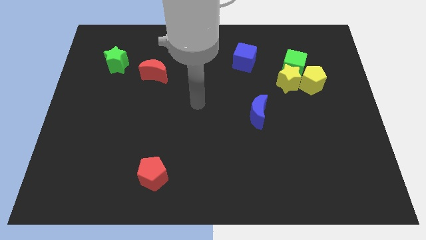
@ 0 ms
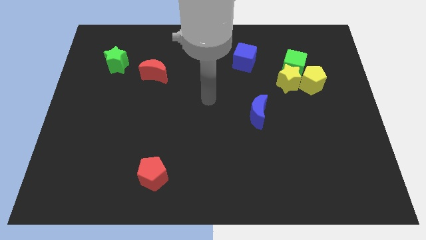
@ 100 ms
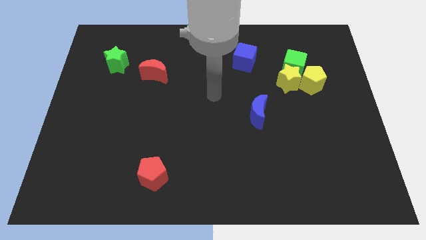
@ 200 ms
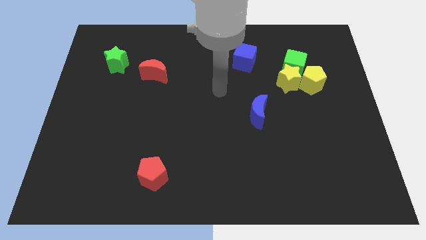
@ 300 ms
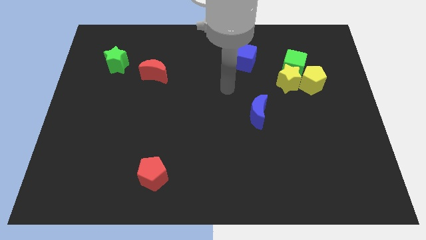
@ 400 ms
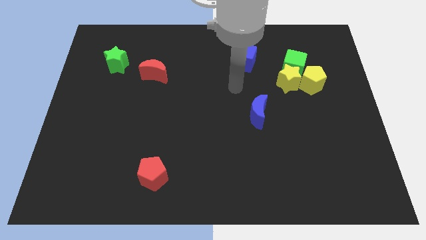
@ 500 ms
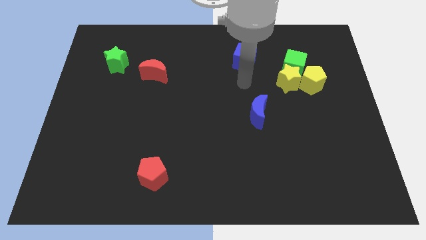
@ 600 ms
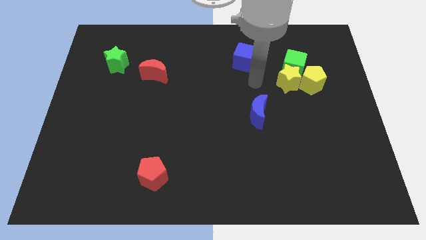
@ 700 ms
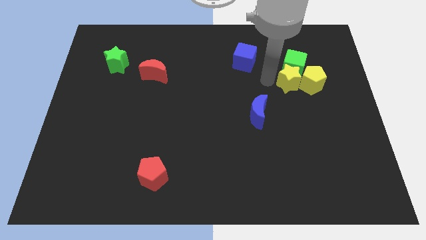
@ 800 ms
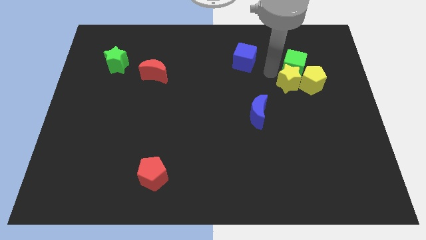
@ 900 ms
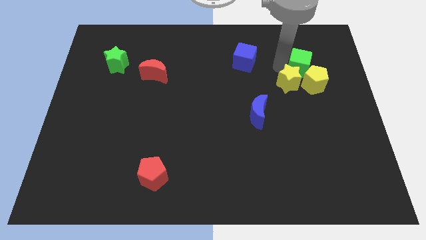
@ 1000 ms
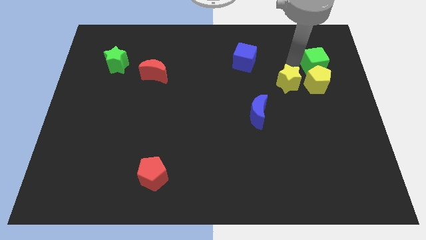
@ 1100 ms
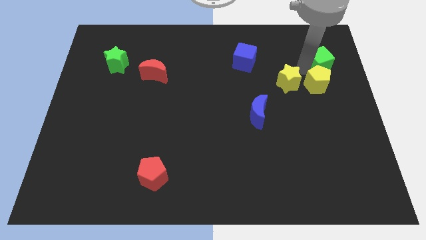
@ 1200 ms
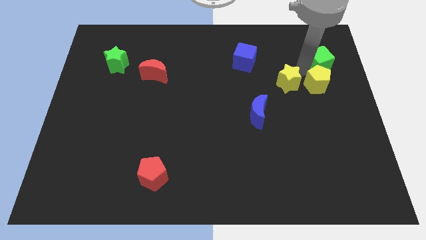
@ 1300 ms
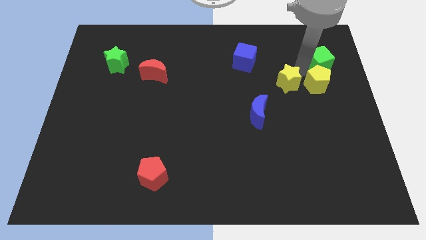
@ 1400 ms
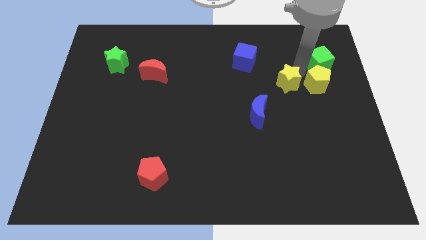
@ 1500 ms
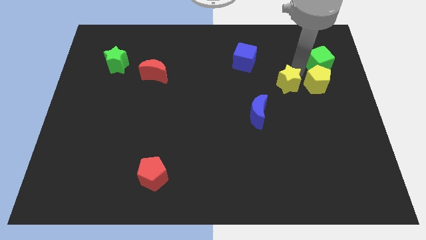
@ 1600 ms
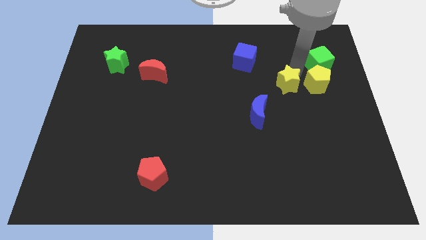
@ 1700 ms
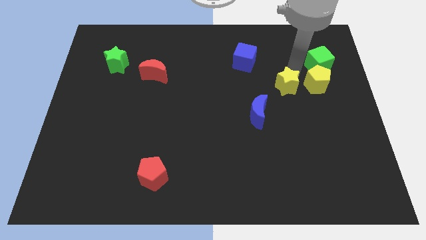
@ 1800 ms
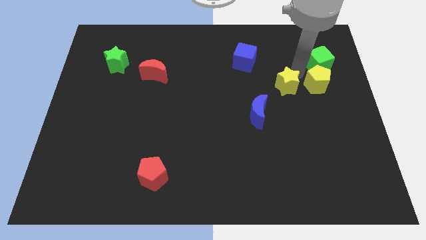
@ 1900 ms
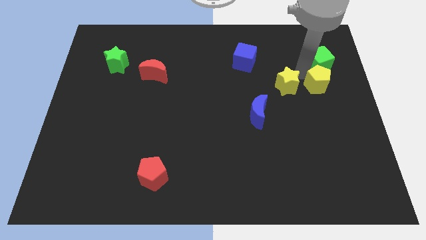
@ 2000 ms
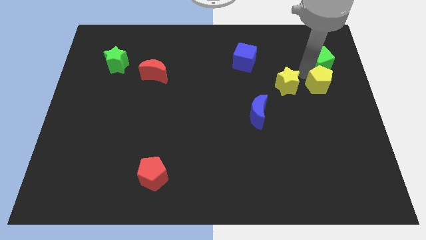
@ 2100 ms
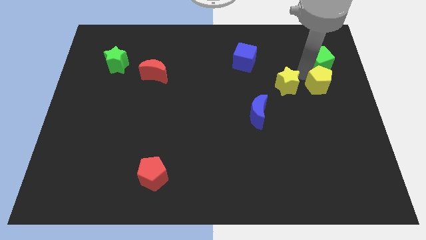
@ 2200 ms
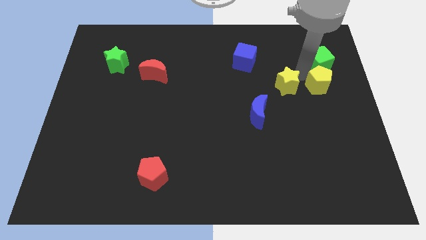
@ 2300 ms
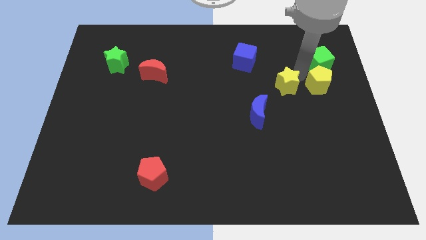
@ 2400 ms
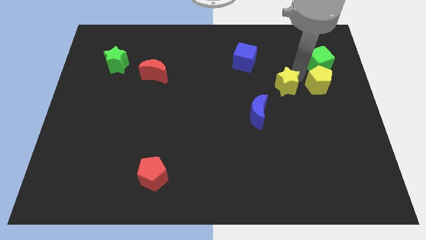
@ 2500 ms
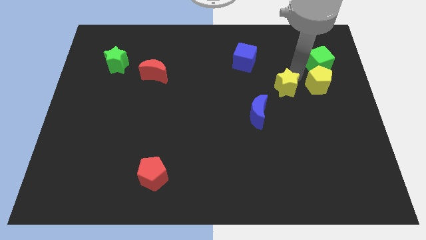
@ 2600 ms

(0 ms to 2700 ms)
pull the yellow star apart from the green cube and yellow pentagon

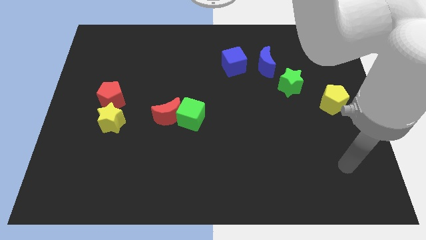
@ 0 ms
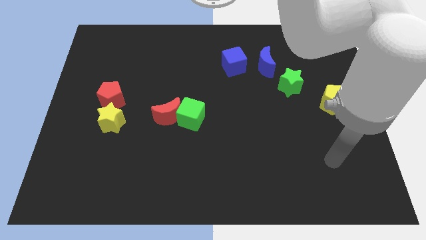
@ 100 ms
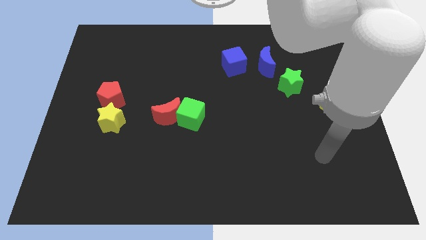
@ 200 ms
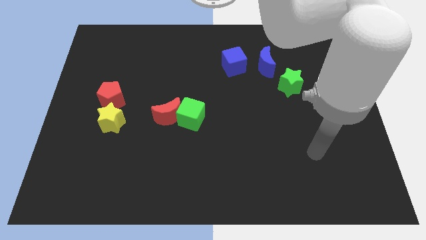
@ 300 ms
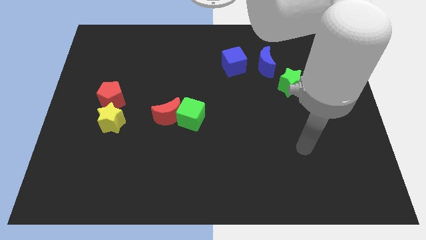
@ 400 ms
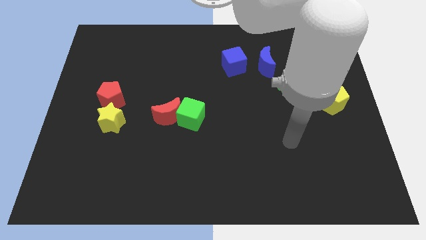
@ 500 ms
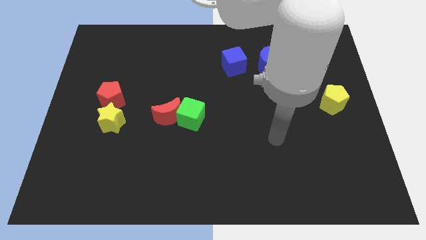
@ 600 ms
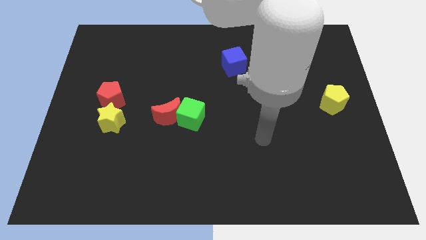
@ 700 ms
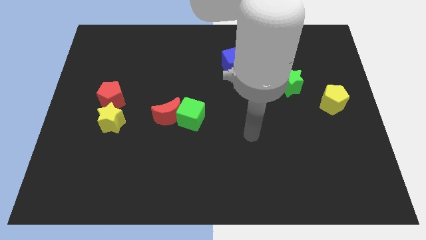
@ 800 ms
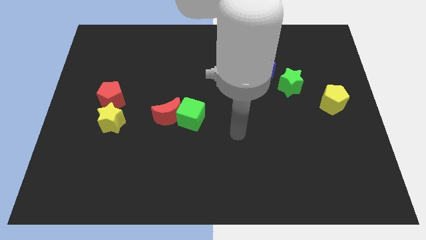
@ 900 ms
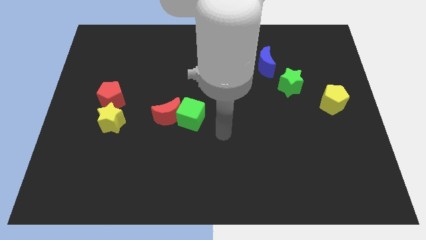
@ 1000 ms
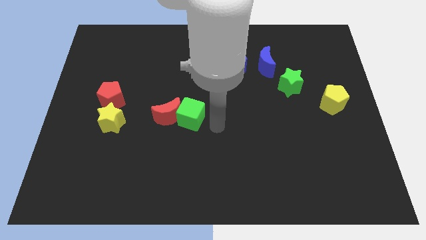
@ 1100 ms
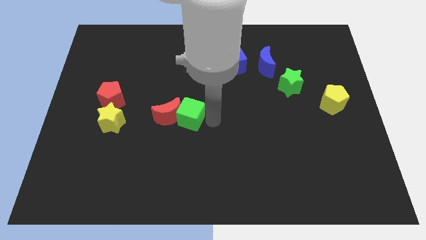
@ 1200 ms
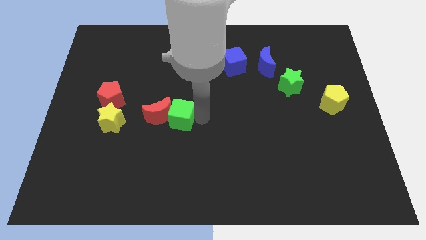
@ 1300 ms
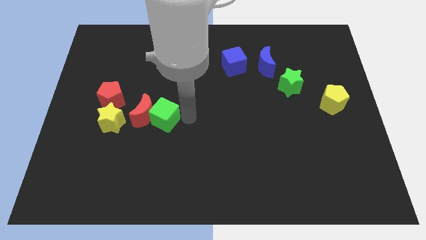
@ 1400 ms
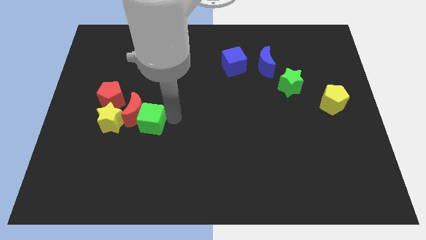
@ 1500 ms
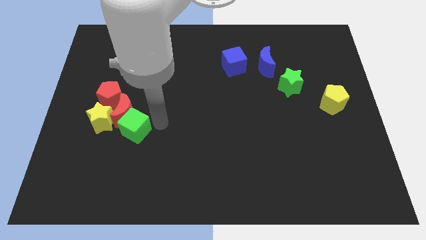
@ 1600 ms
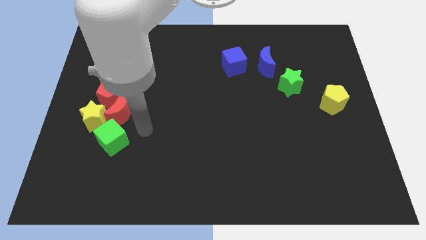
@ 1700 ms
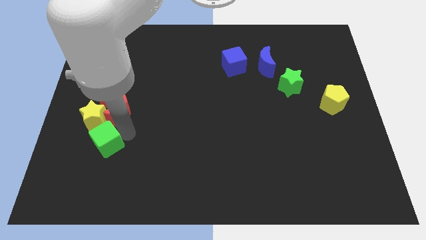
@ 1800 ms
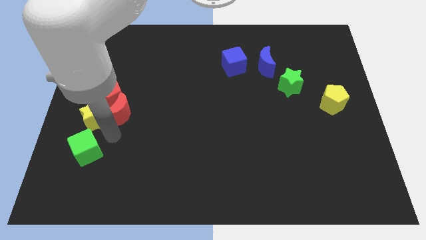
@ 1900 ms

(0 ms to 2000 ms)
pull the red moon apart from the green cube

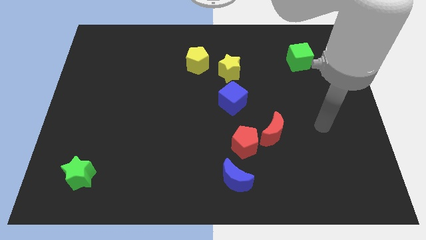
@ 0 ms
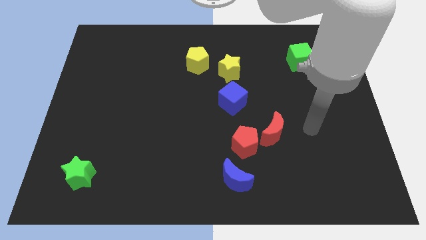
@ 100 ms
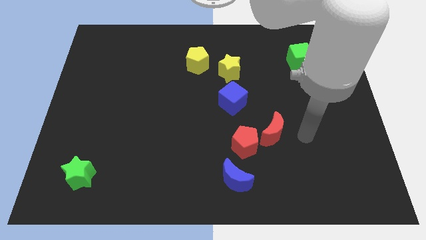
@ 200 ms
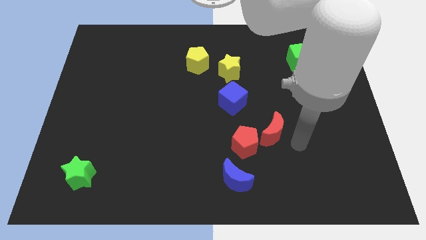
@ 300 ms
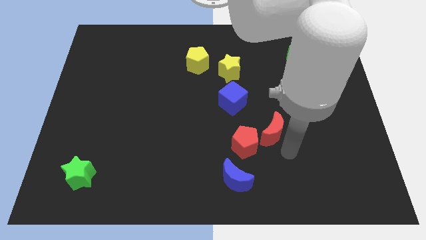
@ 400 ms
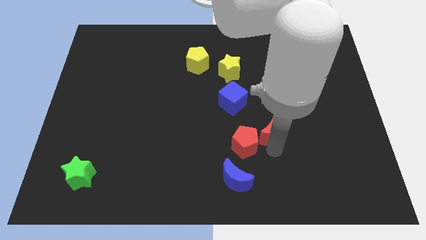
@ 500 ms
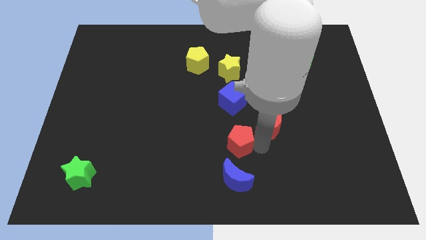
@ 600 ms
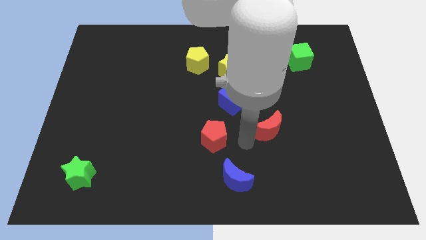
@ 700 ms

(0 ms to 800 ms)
move the red moon away from the red pentagon

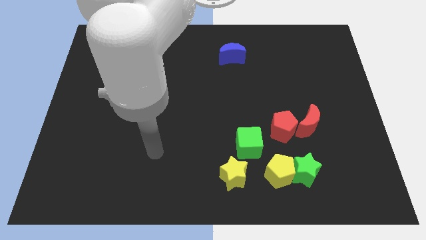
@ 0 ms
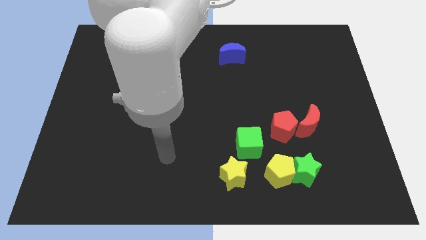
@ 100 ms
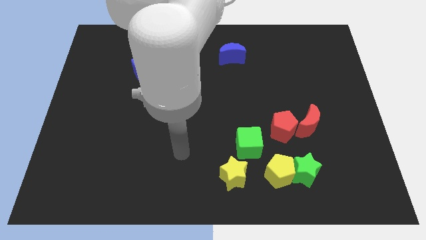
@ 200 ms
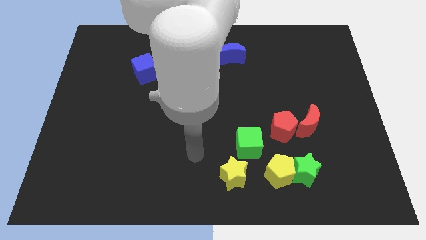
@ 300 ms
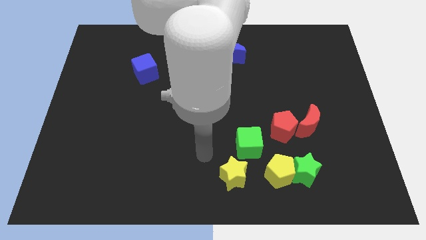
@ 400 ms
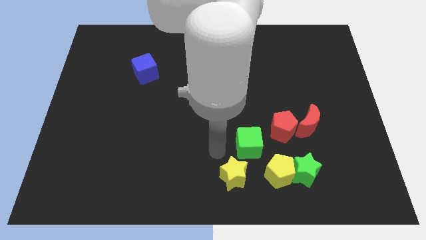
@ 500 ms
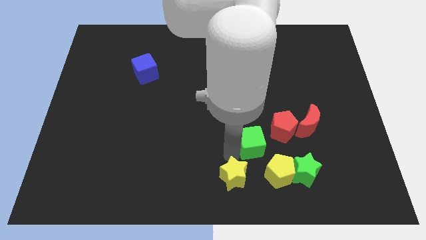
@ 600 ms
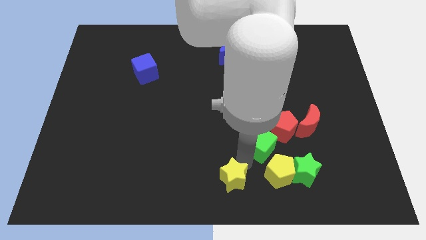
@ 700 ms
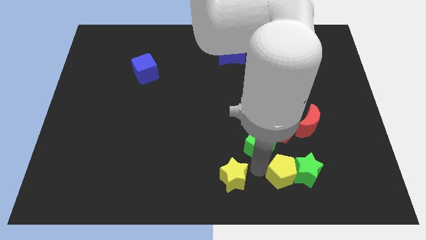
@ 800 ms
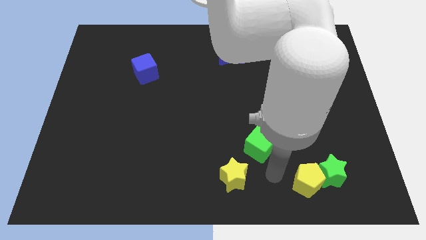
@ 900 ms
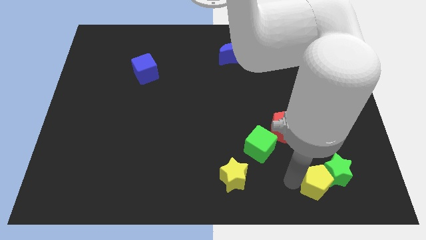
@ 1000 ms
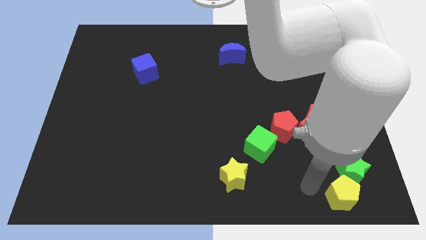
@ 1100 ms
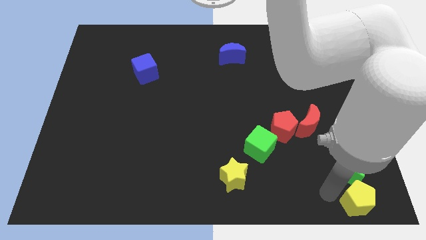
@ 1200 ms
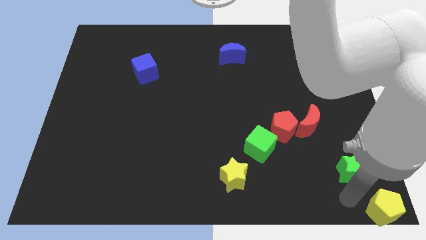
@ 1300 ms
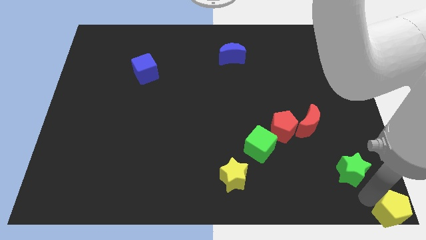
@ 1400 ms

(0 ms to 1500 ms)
separate the green star from the yellow pentagon

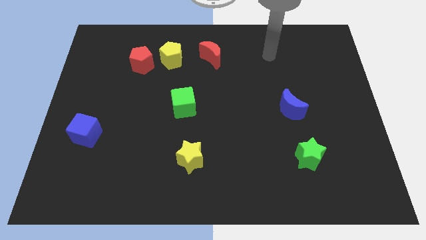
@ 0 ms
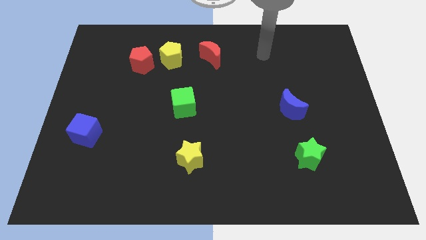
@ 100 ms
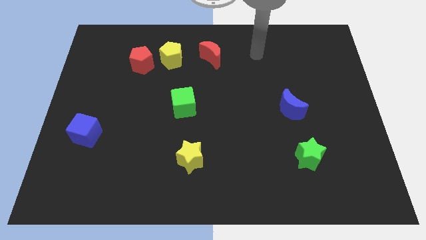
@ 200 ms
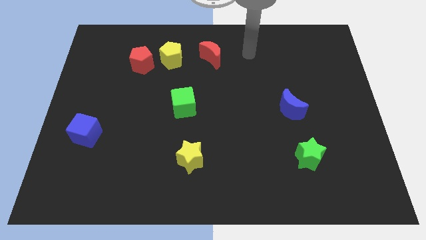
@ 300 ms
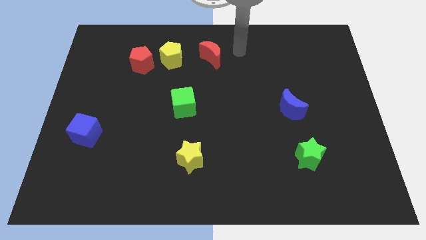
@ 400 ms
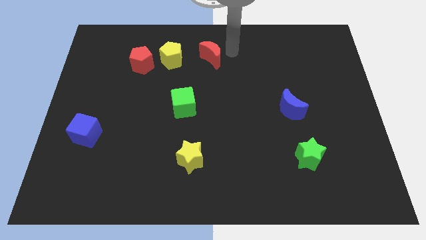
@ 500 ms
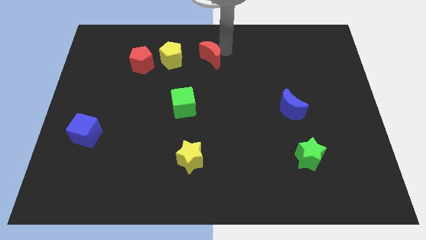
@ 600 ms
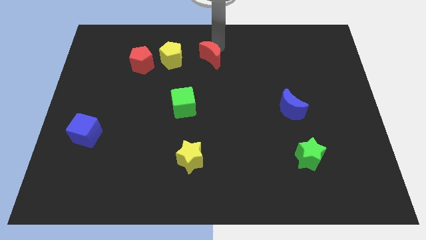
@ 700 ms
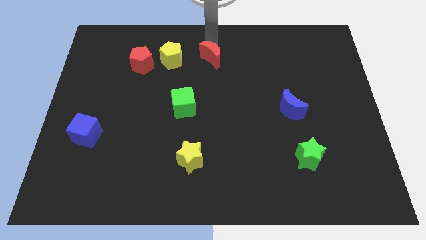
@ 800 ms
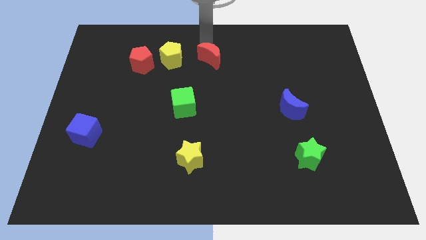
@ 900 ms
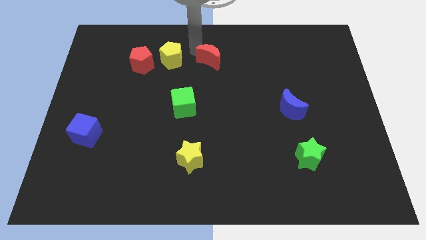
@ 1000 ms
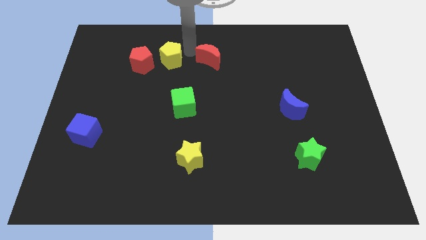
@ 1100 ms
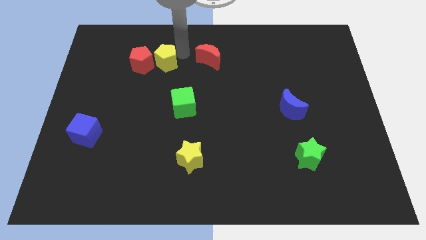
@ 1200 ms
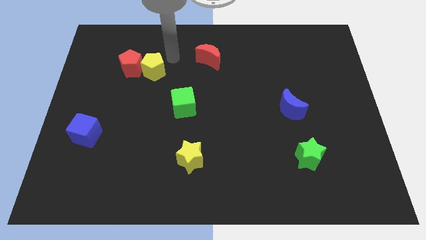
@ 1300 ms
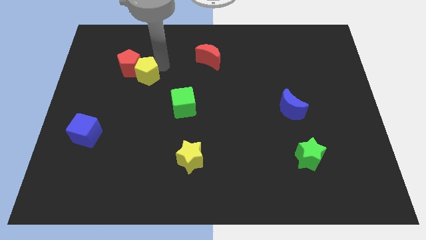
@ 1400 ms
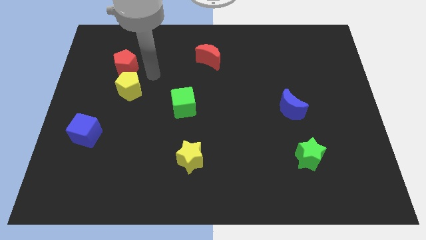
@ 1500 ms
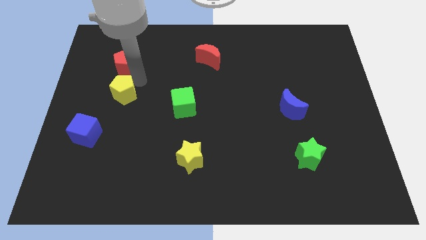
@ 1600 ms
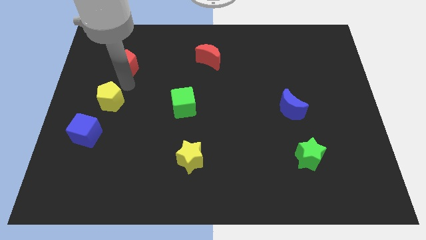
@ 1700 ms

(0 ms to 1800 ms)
move the red pentagon away from the yellow pentagon

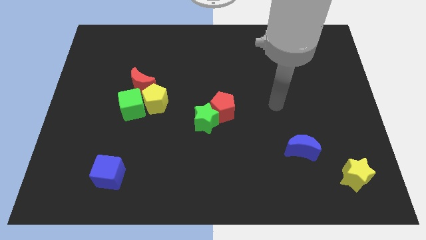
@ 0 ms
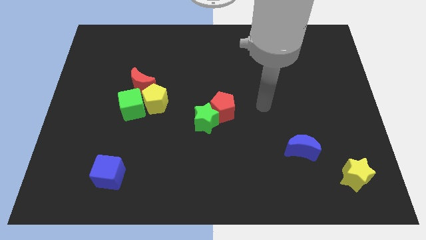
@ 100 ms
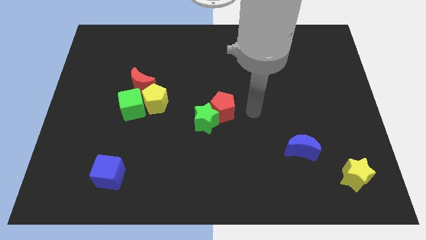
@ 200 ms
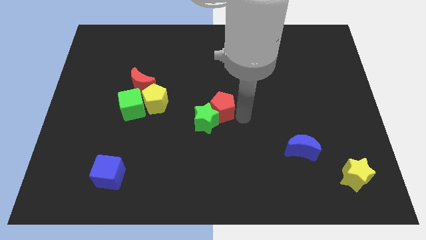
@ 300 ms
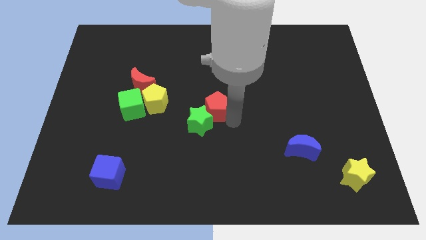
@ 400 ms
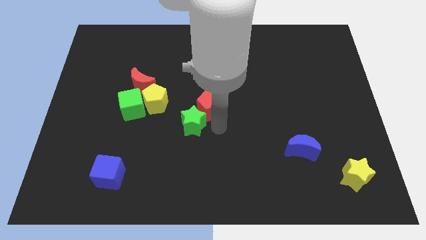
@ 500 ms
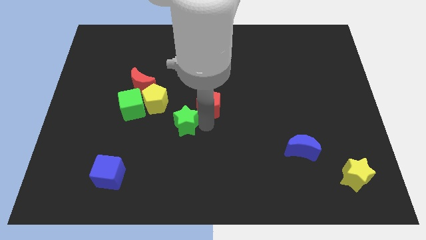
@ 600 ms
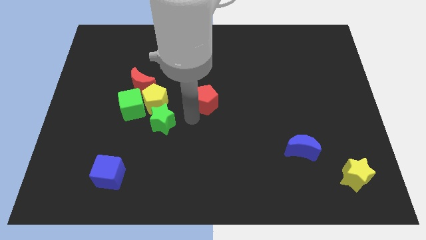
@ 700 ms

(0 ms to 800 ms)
pull the red pentagon apart from the green star
